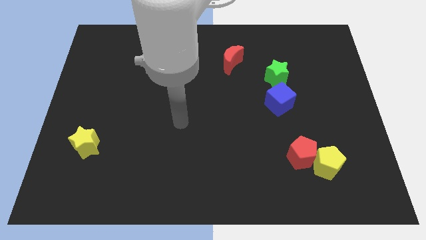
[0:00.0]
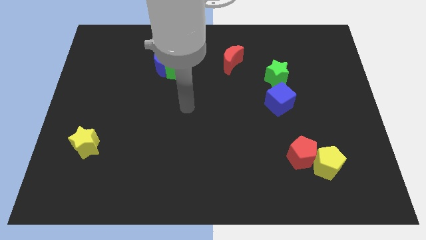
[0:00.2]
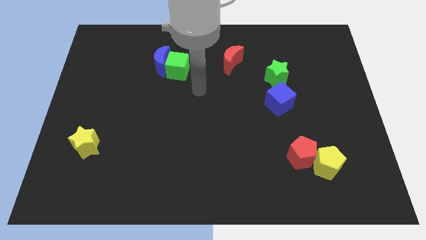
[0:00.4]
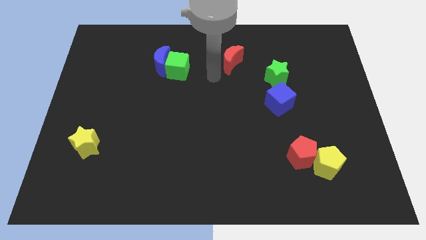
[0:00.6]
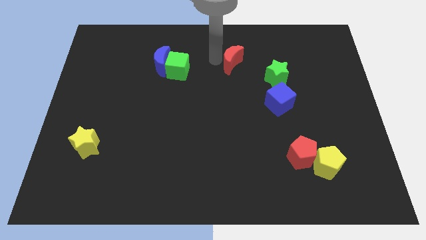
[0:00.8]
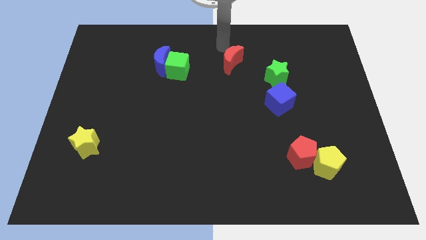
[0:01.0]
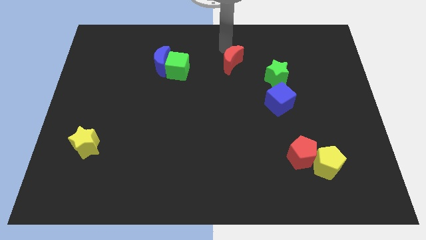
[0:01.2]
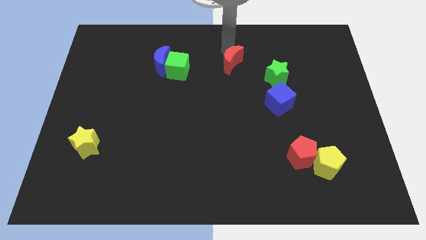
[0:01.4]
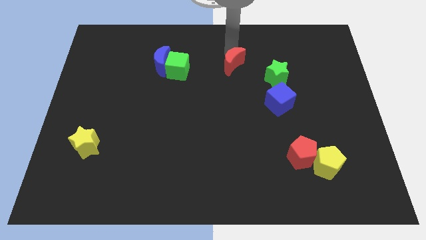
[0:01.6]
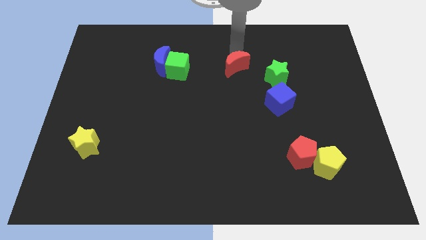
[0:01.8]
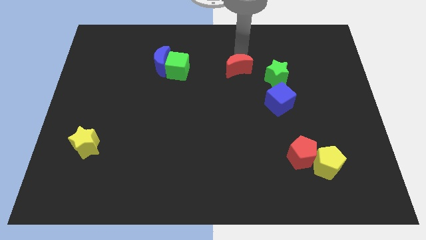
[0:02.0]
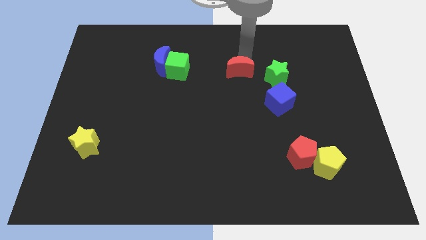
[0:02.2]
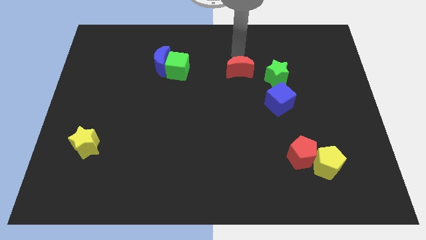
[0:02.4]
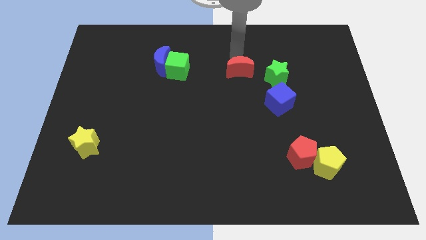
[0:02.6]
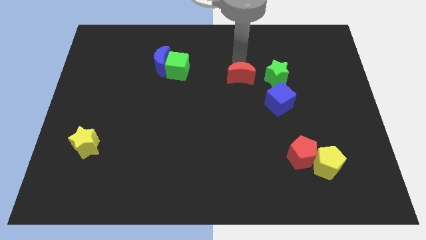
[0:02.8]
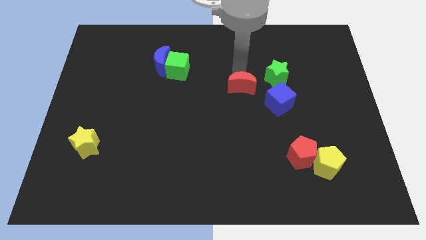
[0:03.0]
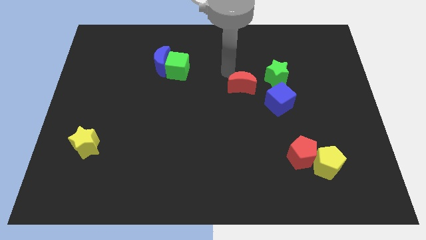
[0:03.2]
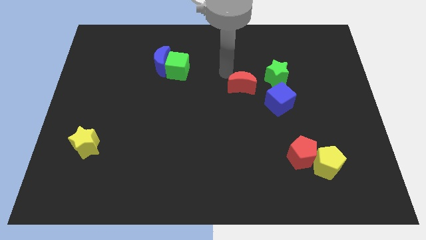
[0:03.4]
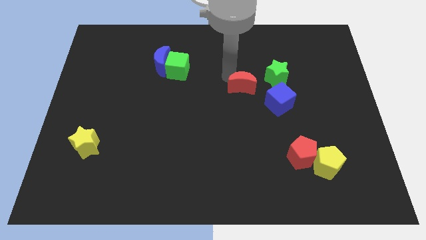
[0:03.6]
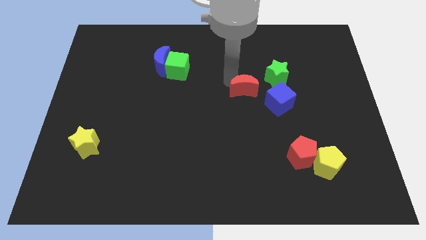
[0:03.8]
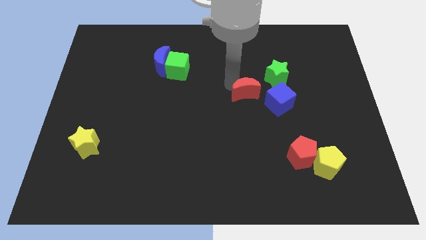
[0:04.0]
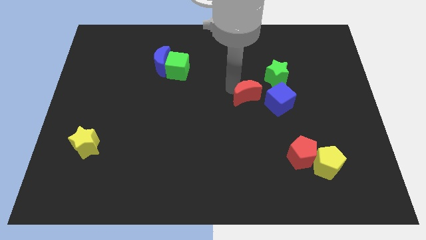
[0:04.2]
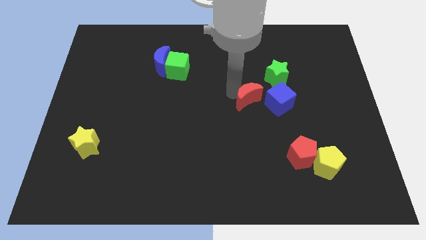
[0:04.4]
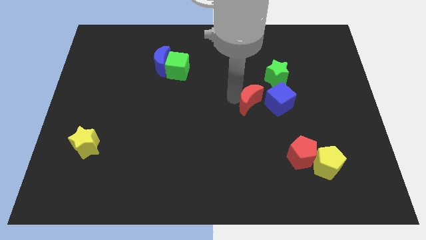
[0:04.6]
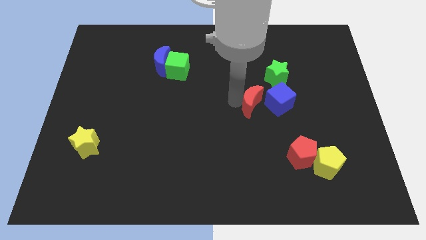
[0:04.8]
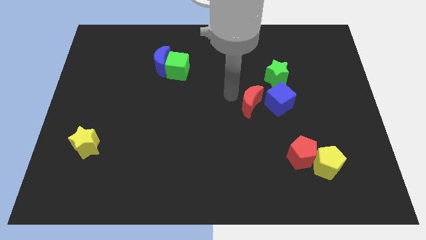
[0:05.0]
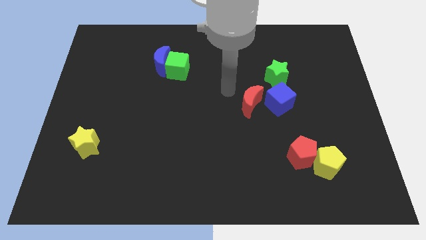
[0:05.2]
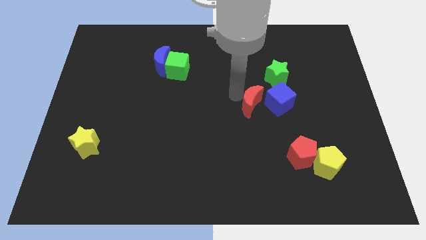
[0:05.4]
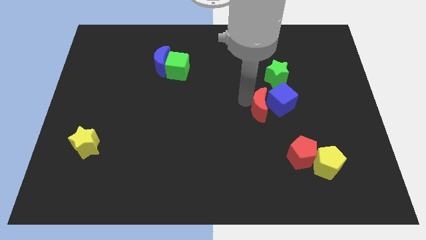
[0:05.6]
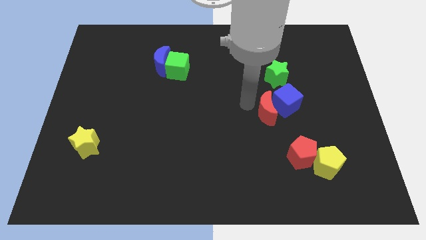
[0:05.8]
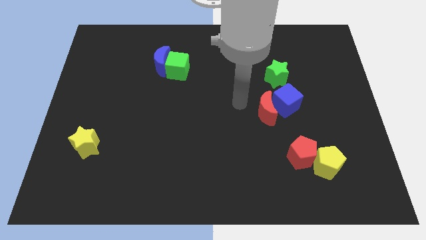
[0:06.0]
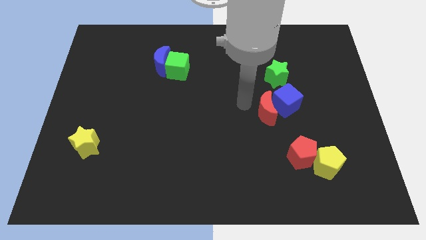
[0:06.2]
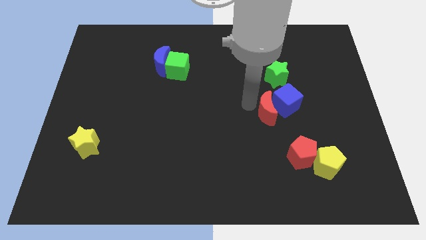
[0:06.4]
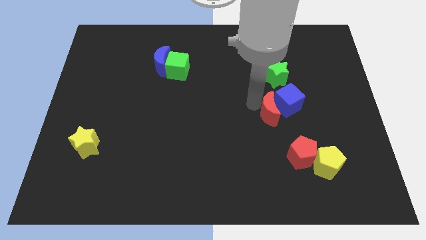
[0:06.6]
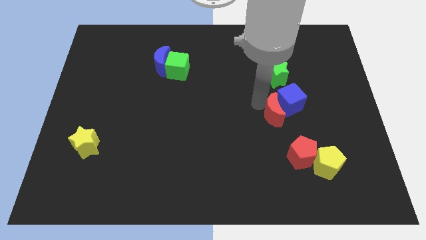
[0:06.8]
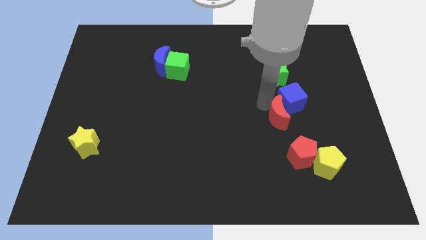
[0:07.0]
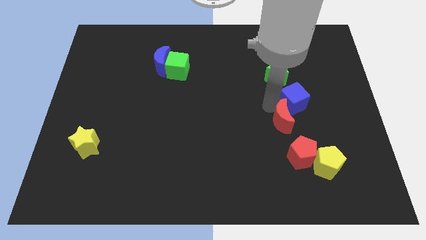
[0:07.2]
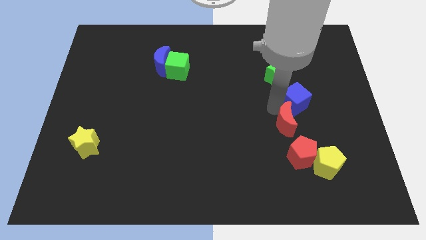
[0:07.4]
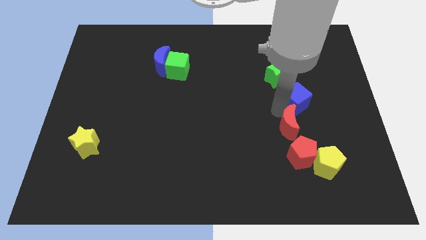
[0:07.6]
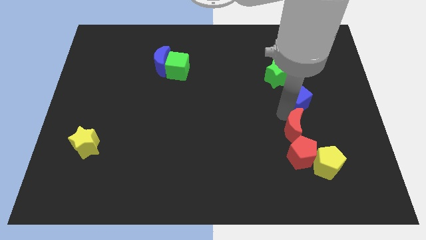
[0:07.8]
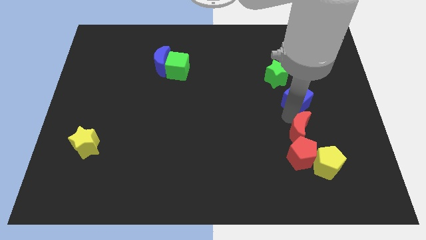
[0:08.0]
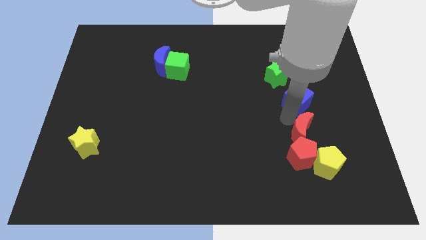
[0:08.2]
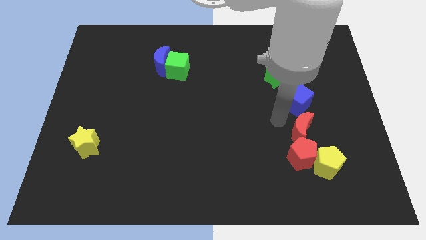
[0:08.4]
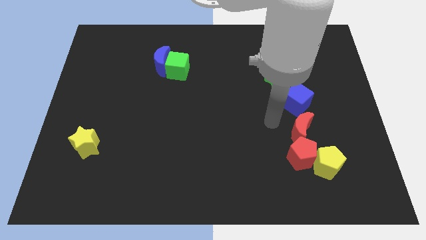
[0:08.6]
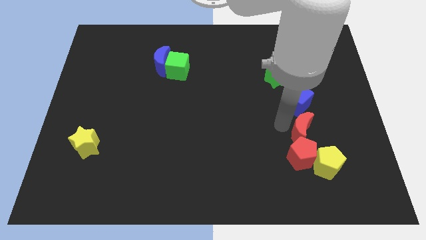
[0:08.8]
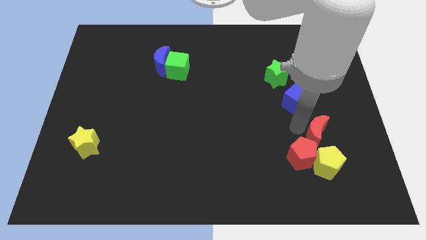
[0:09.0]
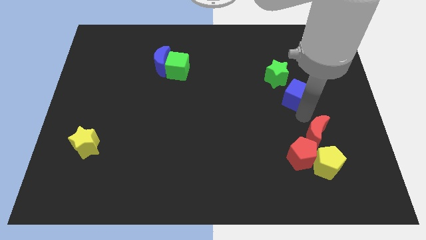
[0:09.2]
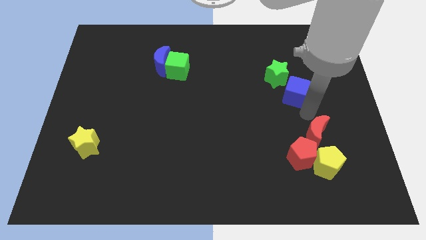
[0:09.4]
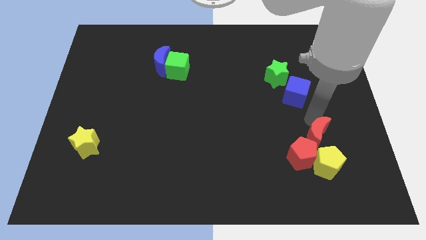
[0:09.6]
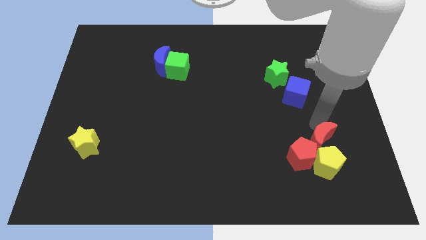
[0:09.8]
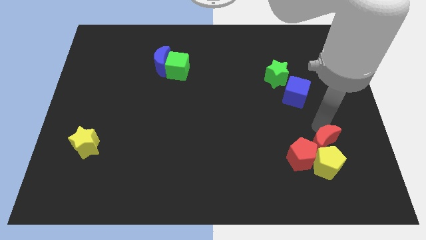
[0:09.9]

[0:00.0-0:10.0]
push the red moon towards the yellow pentagon

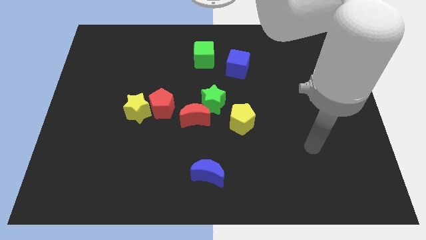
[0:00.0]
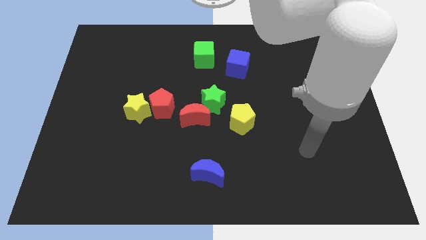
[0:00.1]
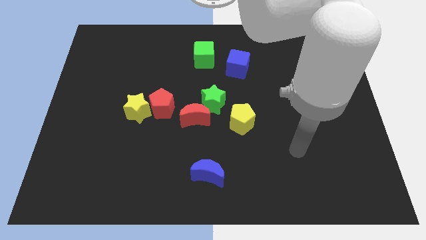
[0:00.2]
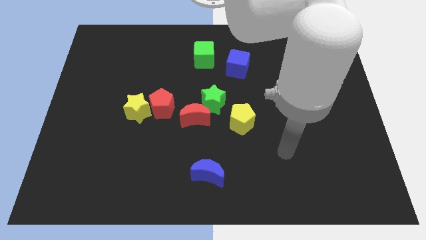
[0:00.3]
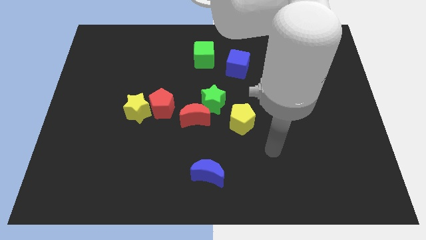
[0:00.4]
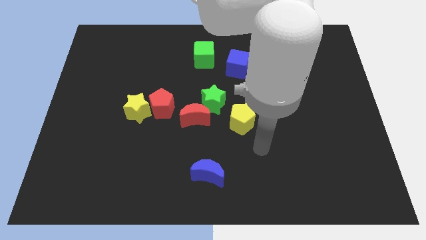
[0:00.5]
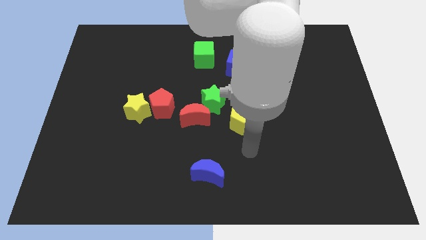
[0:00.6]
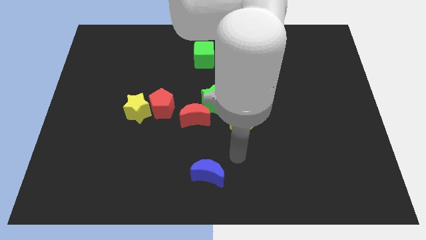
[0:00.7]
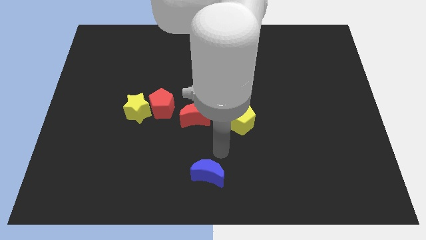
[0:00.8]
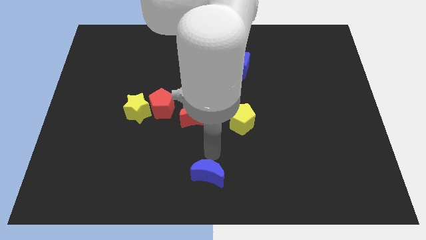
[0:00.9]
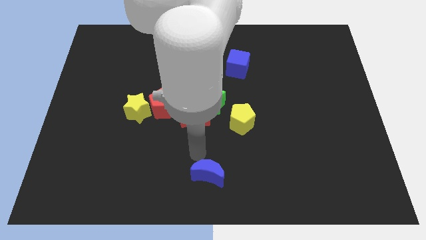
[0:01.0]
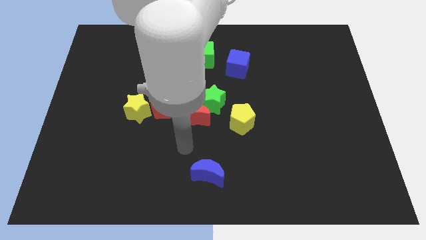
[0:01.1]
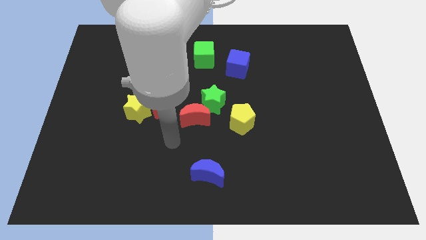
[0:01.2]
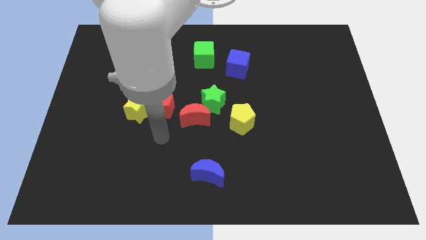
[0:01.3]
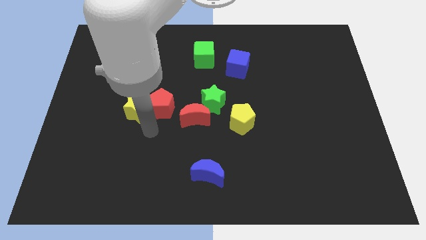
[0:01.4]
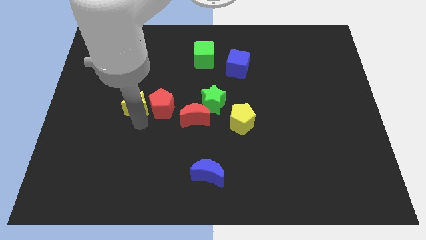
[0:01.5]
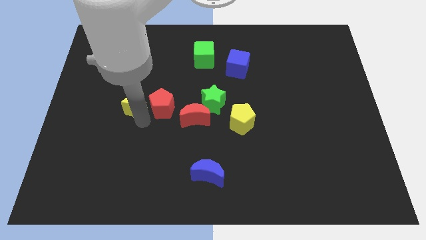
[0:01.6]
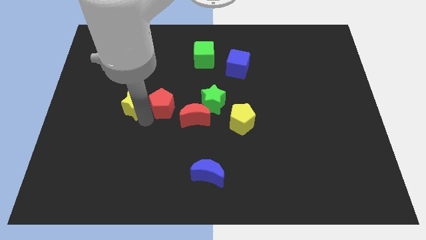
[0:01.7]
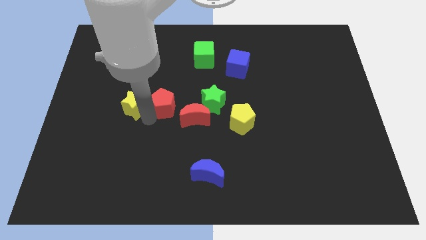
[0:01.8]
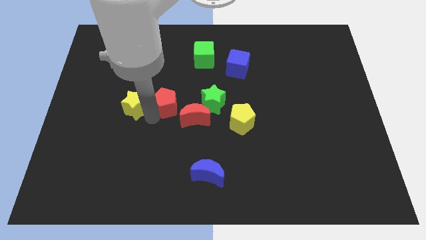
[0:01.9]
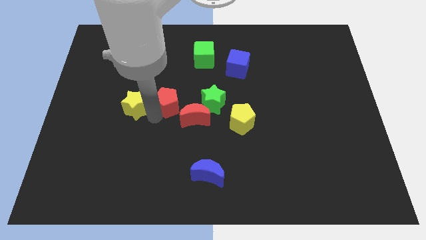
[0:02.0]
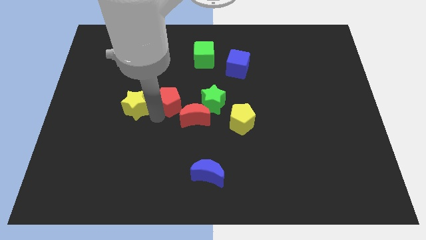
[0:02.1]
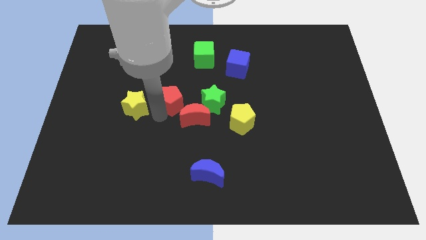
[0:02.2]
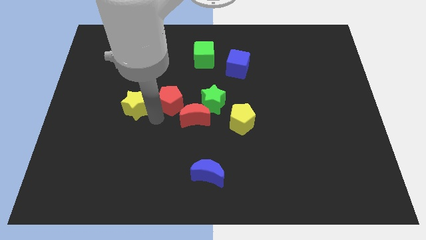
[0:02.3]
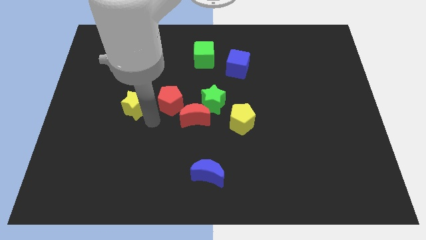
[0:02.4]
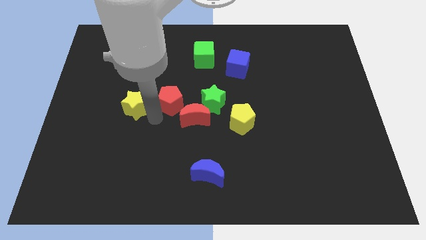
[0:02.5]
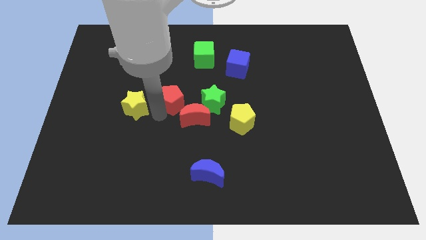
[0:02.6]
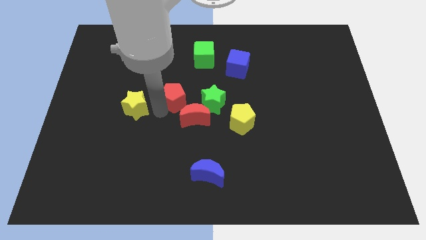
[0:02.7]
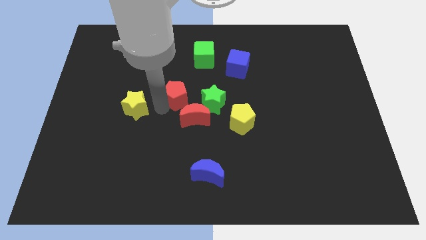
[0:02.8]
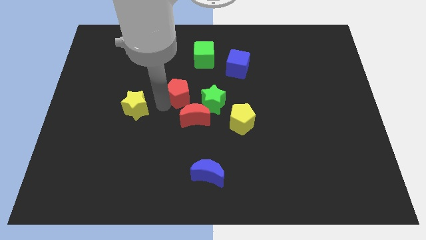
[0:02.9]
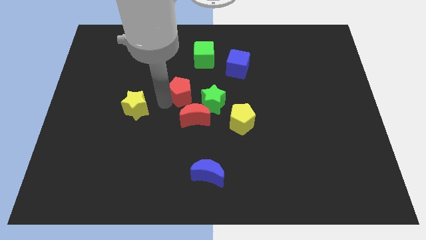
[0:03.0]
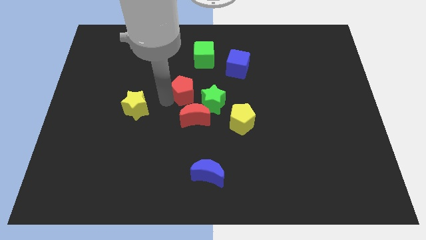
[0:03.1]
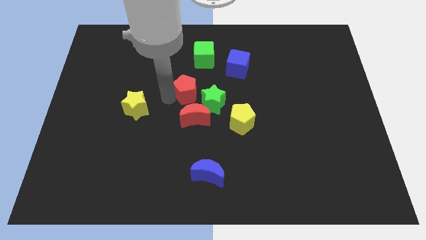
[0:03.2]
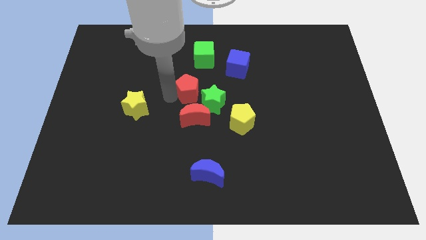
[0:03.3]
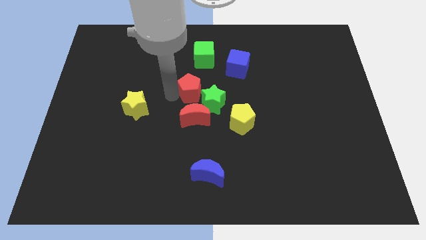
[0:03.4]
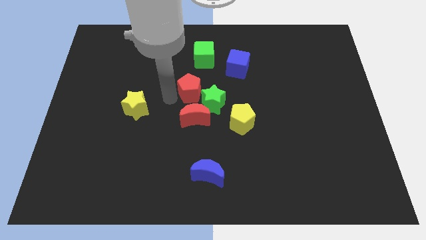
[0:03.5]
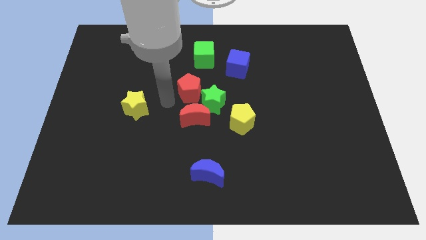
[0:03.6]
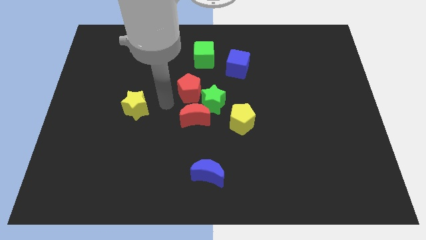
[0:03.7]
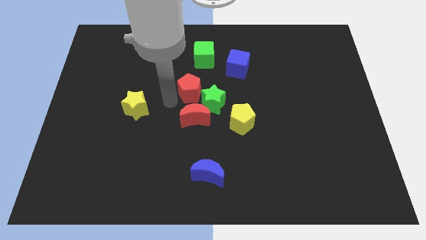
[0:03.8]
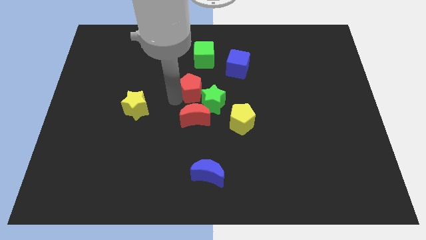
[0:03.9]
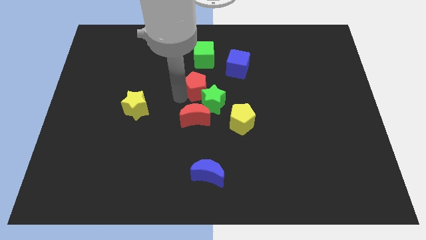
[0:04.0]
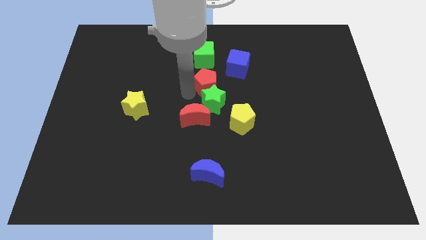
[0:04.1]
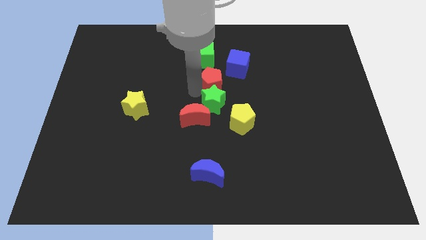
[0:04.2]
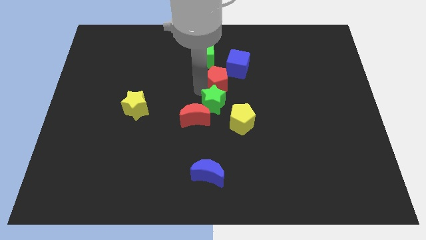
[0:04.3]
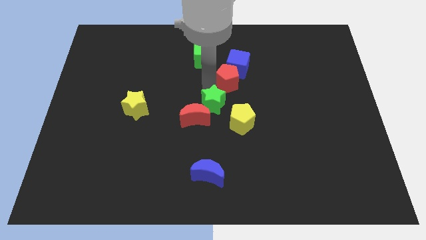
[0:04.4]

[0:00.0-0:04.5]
move the red pentagon to the blue cube
